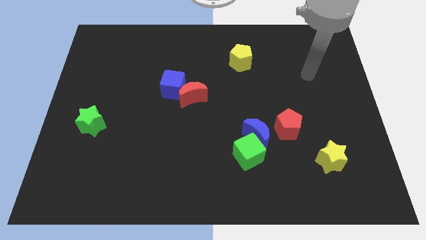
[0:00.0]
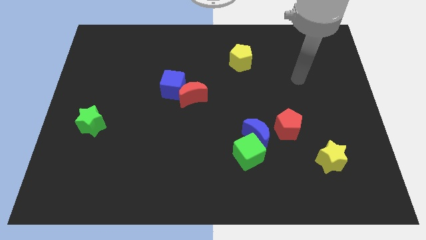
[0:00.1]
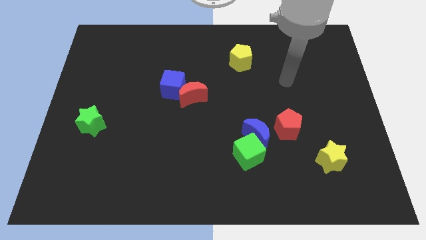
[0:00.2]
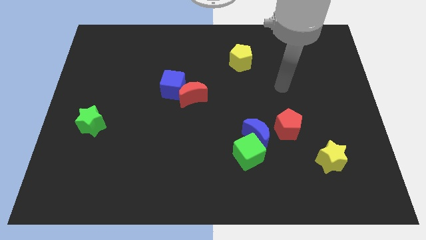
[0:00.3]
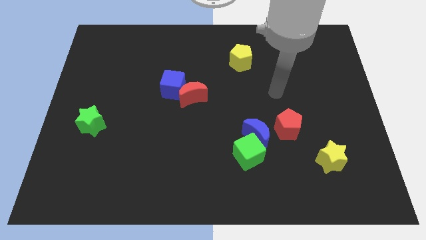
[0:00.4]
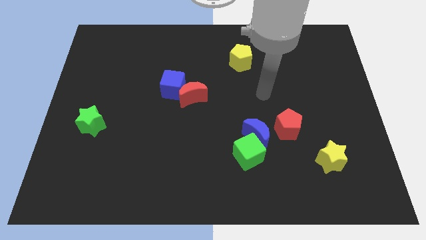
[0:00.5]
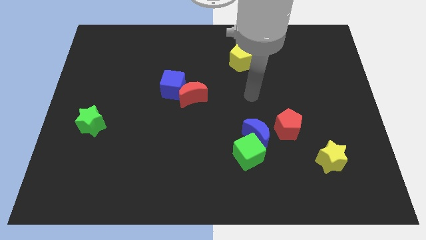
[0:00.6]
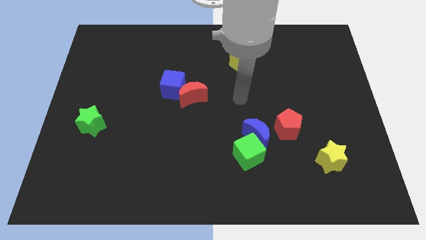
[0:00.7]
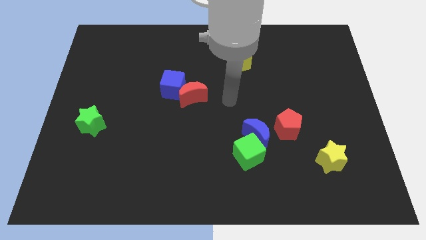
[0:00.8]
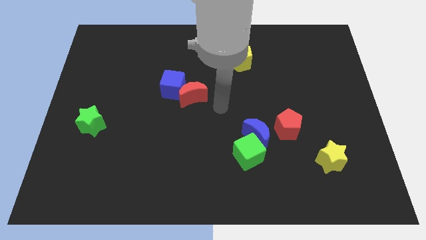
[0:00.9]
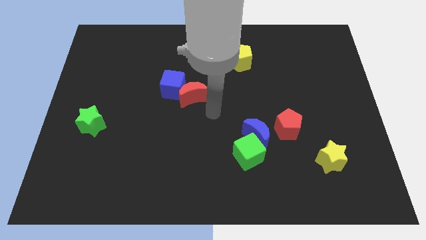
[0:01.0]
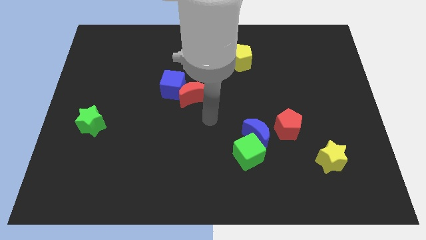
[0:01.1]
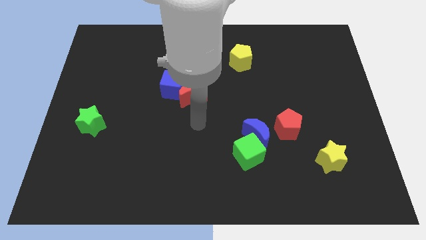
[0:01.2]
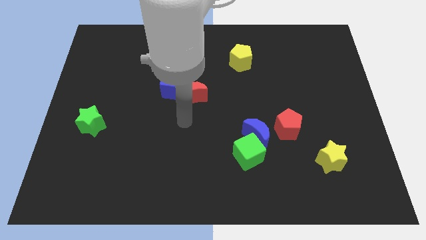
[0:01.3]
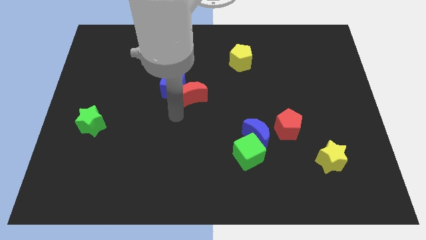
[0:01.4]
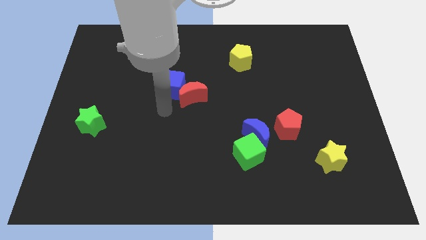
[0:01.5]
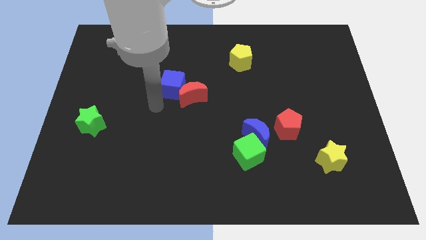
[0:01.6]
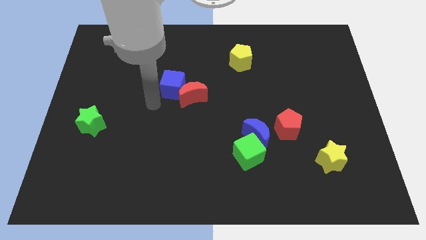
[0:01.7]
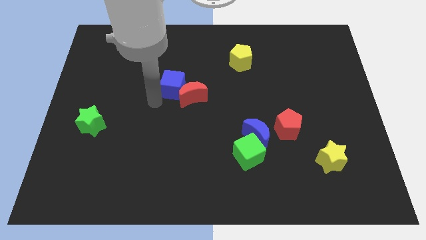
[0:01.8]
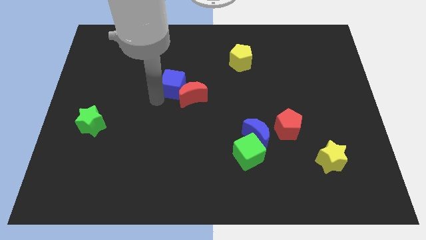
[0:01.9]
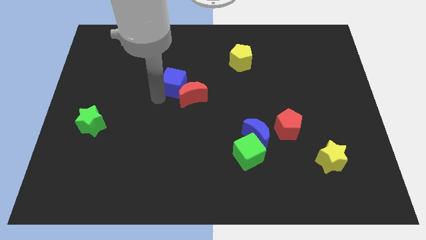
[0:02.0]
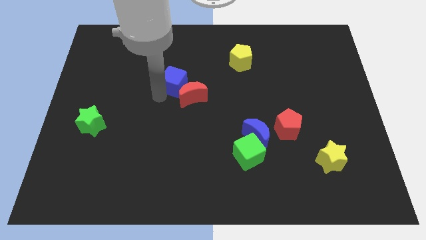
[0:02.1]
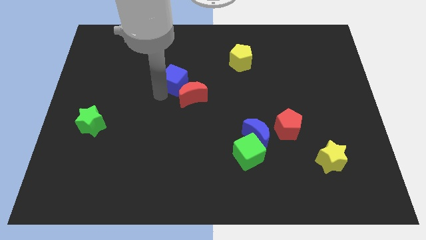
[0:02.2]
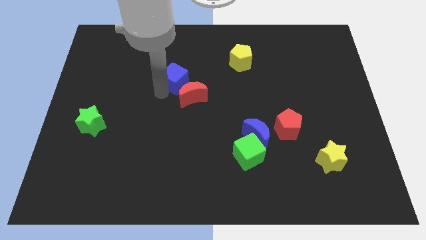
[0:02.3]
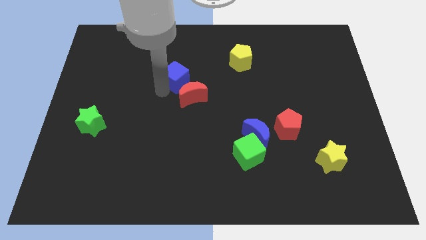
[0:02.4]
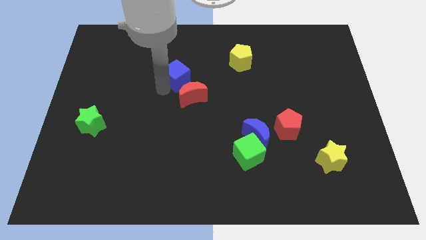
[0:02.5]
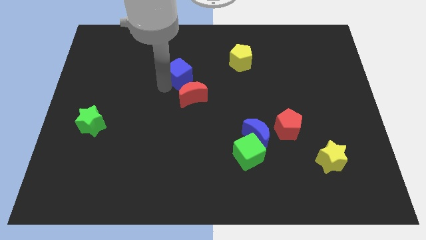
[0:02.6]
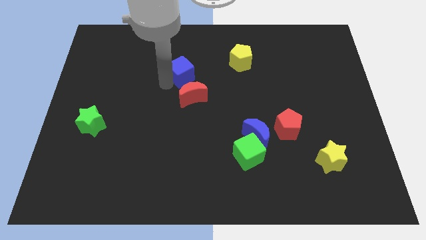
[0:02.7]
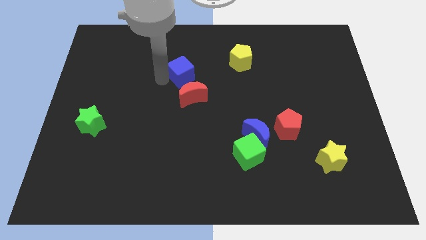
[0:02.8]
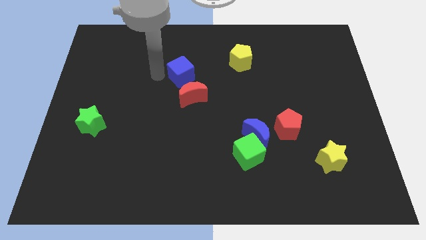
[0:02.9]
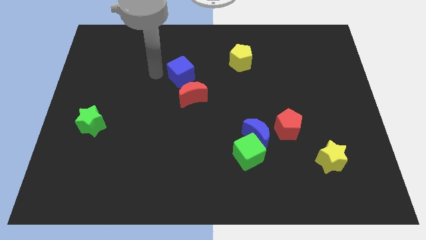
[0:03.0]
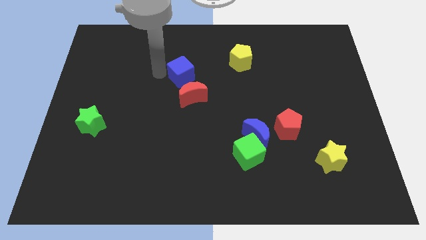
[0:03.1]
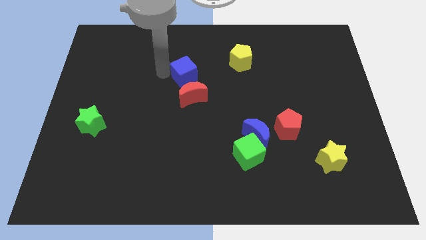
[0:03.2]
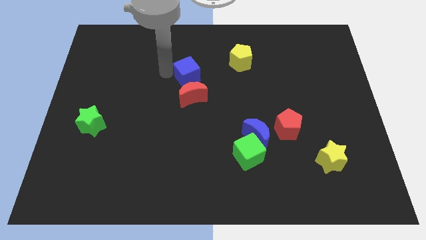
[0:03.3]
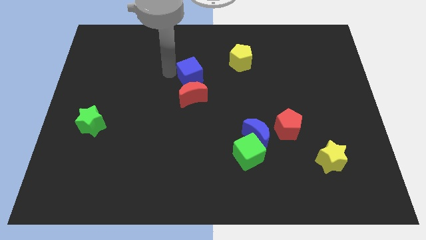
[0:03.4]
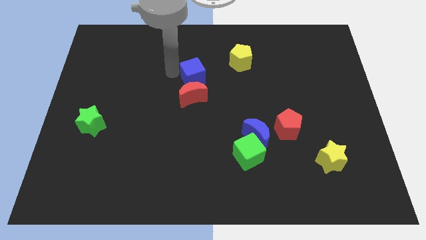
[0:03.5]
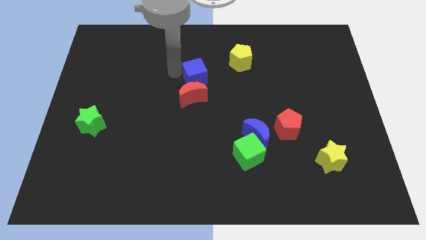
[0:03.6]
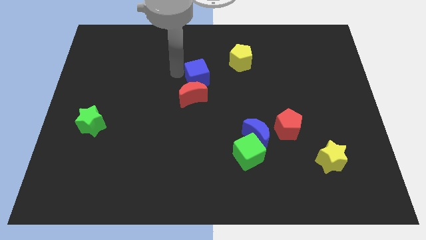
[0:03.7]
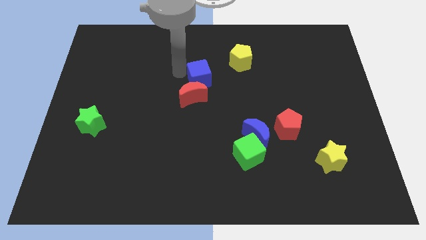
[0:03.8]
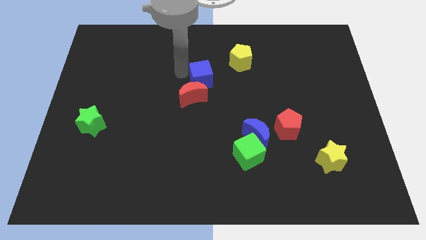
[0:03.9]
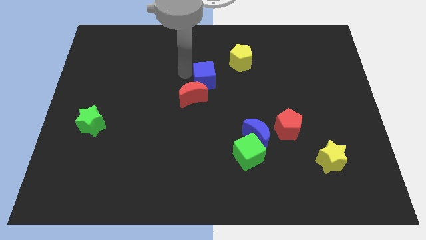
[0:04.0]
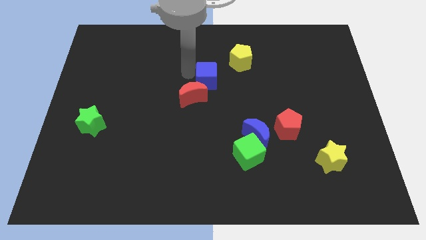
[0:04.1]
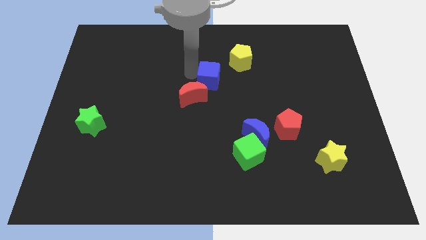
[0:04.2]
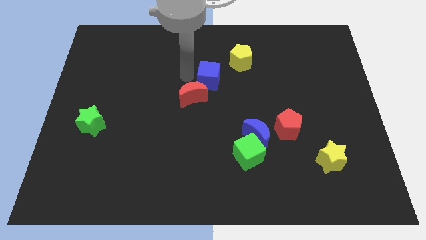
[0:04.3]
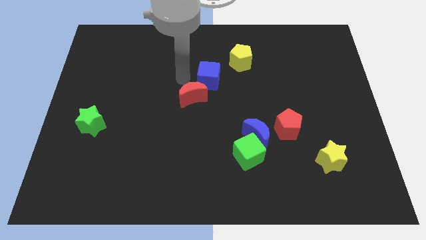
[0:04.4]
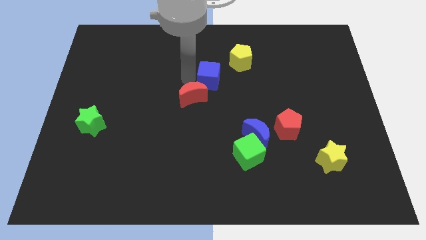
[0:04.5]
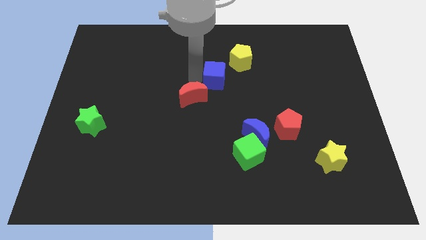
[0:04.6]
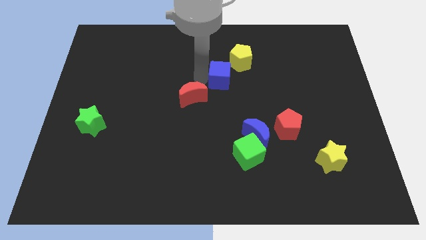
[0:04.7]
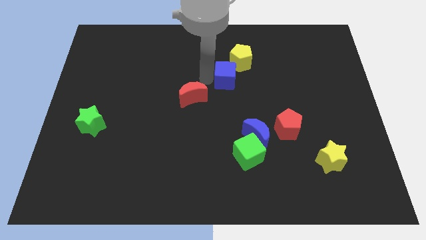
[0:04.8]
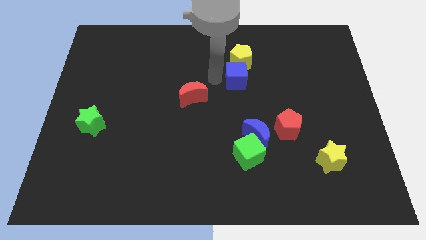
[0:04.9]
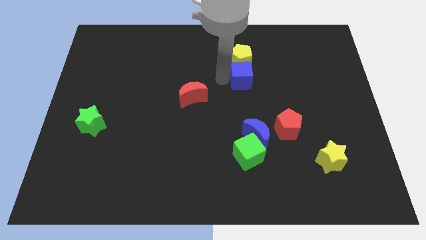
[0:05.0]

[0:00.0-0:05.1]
slide the blue cube to the bottom right of the yellow pentagon

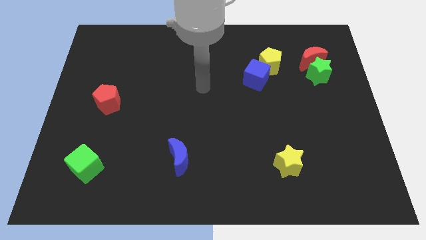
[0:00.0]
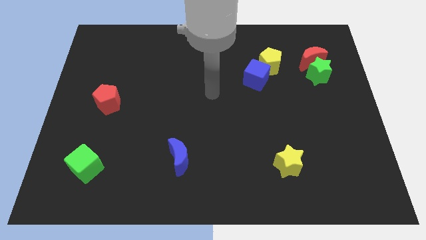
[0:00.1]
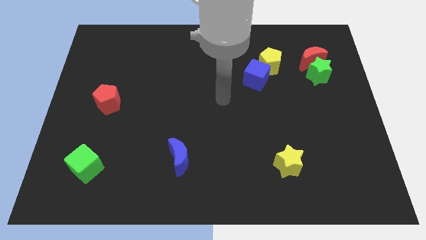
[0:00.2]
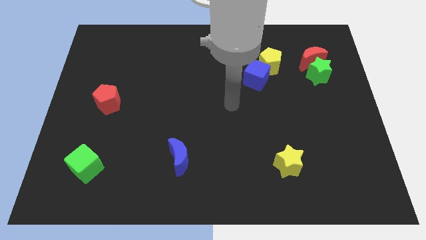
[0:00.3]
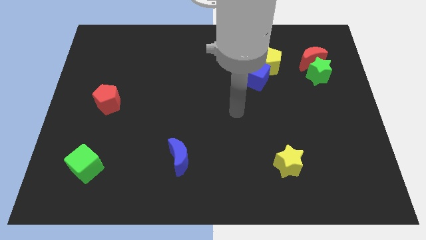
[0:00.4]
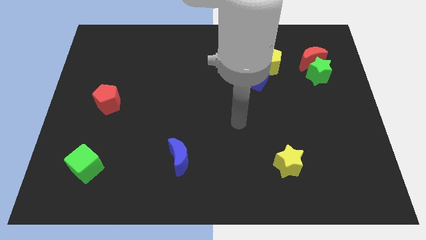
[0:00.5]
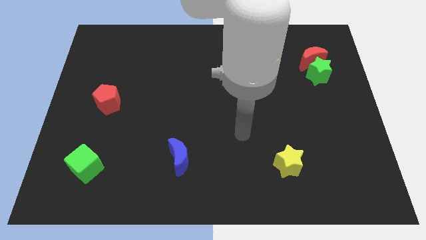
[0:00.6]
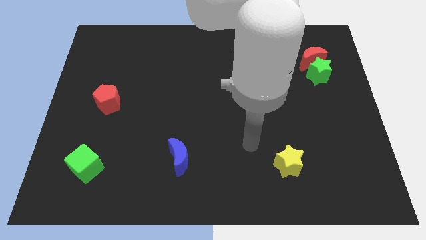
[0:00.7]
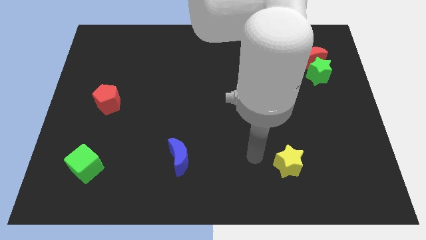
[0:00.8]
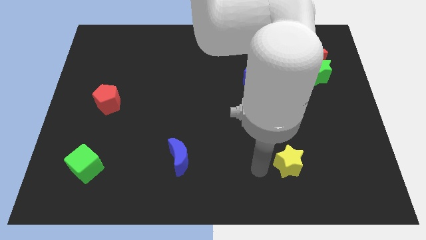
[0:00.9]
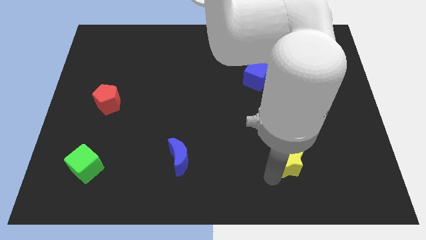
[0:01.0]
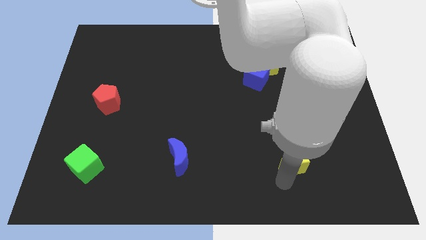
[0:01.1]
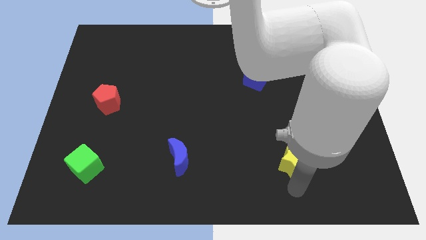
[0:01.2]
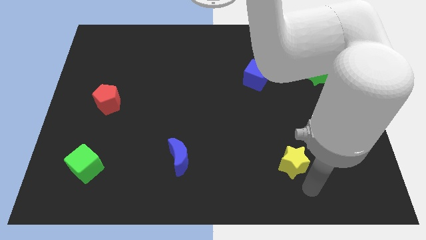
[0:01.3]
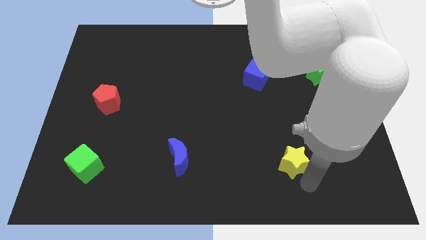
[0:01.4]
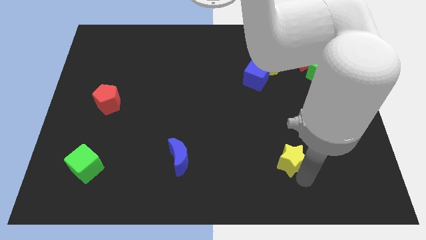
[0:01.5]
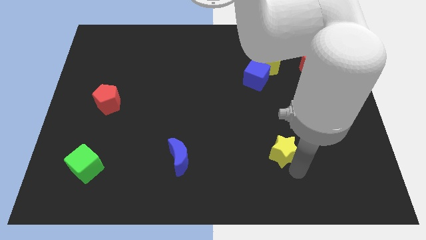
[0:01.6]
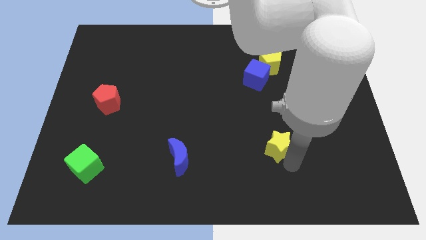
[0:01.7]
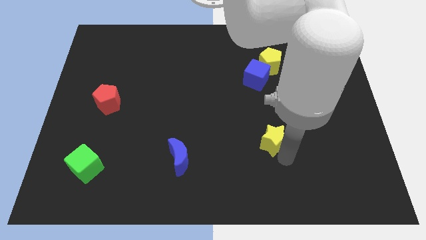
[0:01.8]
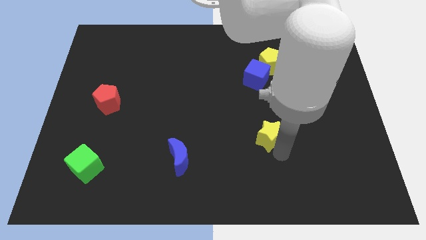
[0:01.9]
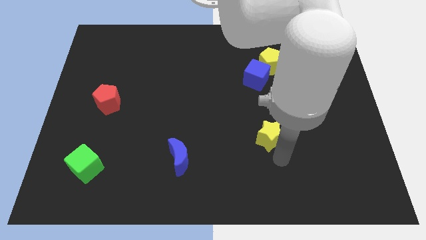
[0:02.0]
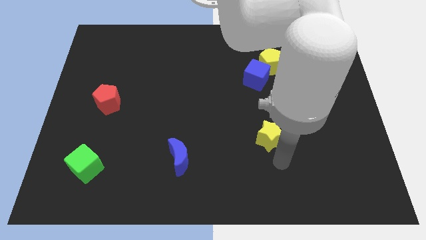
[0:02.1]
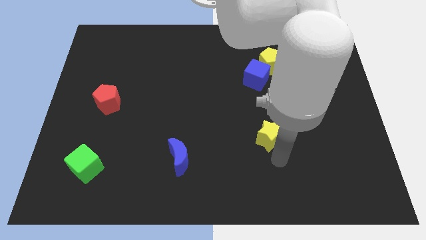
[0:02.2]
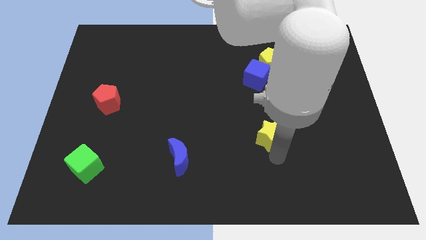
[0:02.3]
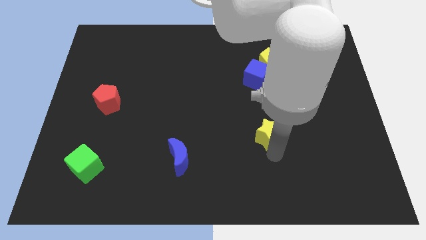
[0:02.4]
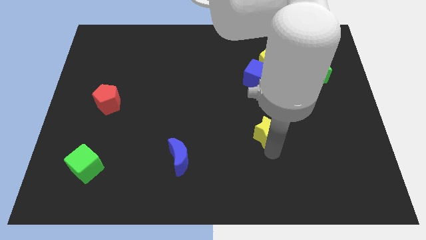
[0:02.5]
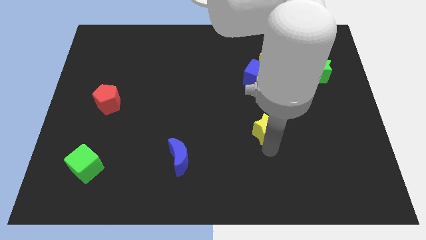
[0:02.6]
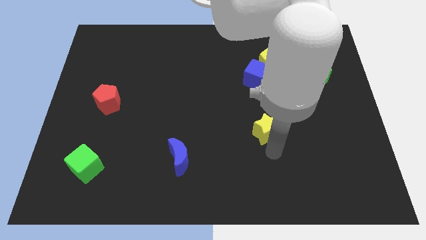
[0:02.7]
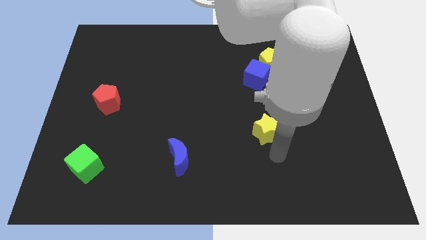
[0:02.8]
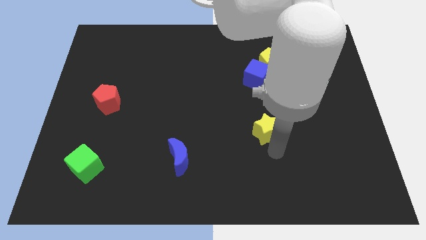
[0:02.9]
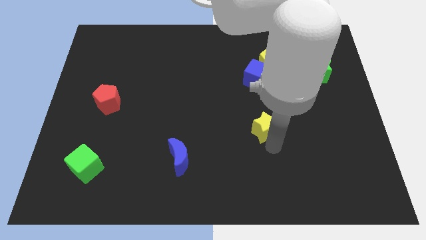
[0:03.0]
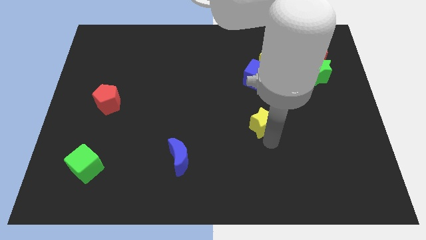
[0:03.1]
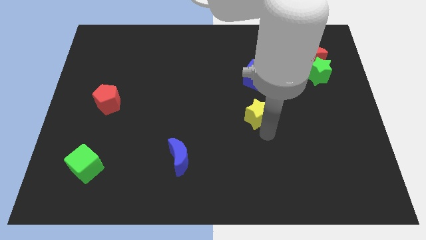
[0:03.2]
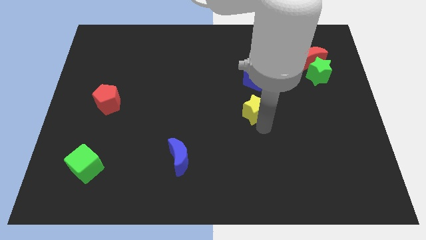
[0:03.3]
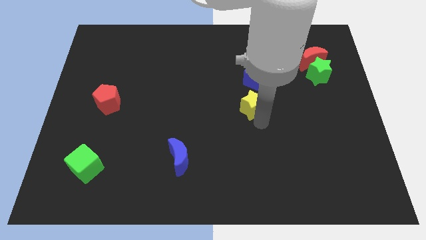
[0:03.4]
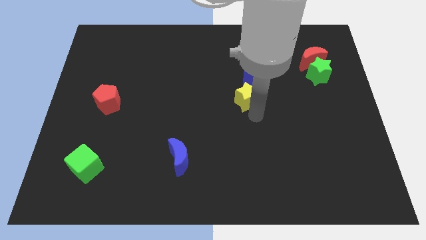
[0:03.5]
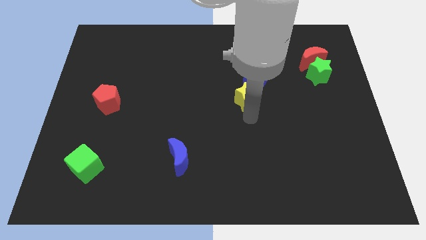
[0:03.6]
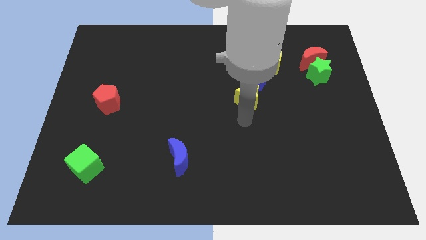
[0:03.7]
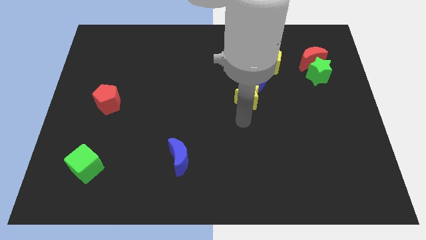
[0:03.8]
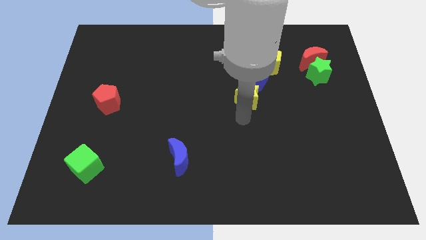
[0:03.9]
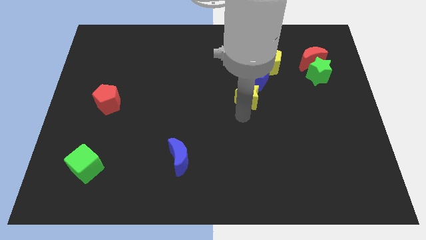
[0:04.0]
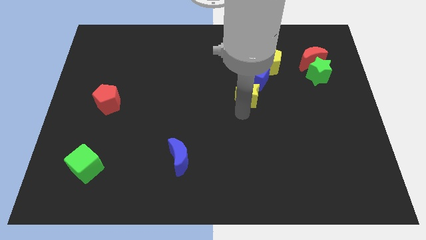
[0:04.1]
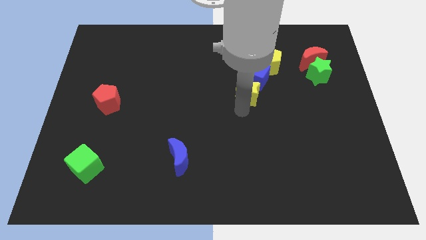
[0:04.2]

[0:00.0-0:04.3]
put the yellow star to the bottom left side of the yellow pentagon
